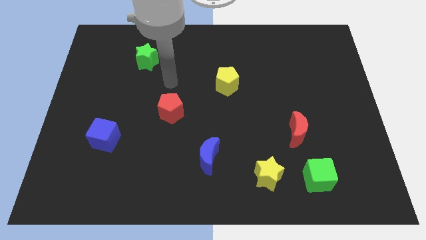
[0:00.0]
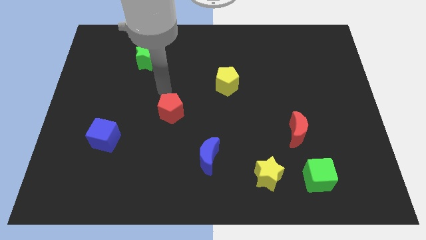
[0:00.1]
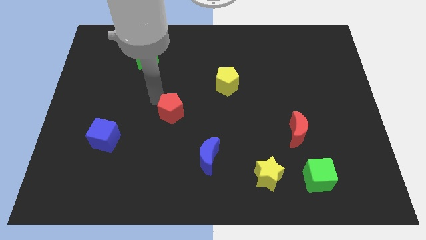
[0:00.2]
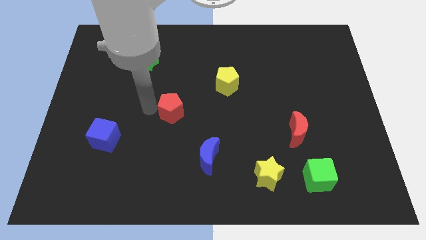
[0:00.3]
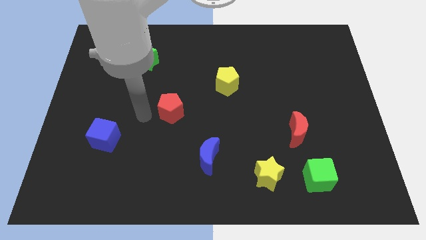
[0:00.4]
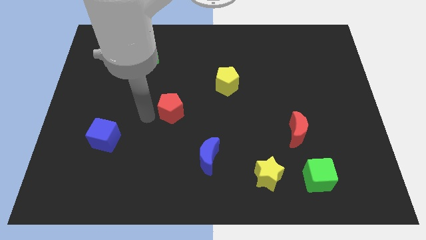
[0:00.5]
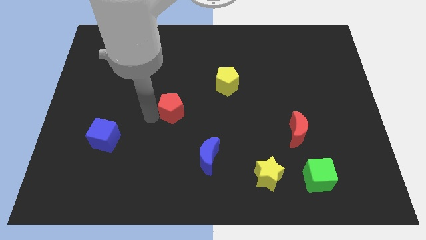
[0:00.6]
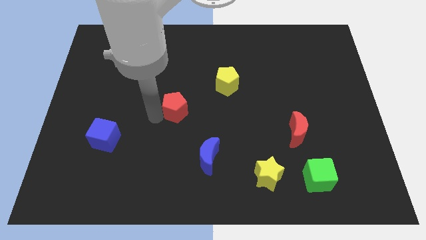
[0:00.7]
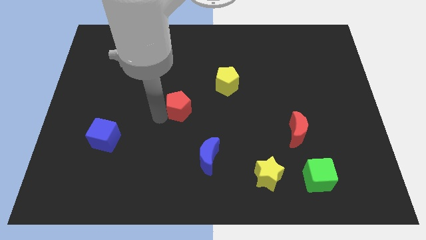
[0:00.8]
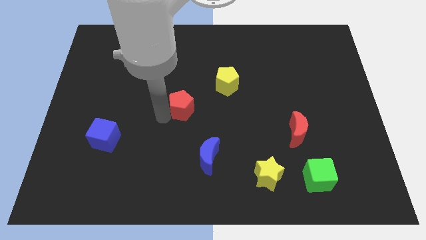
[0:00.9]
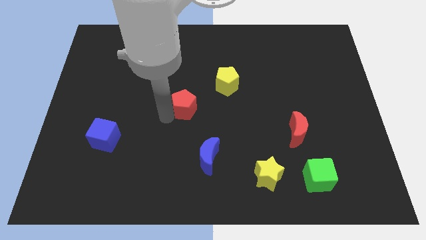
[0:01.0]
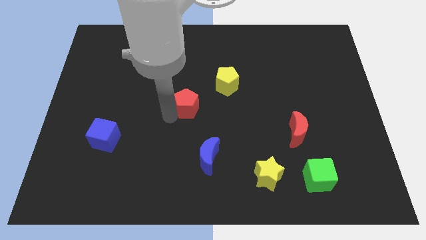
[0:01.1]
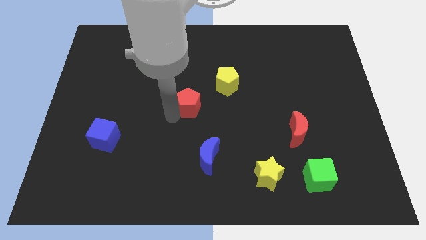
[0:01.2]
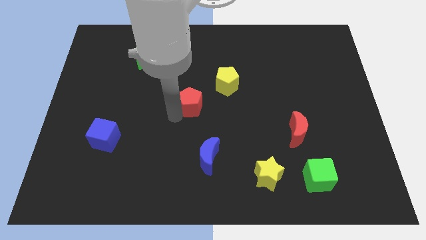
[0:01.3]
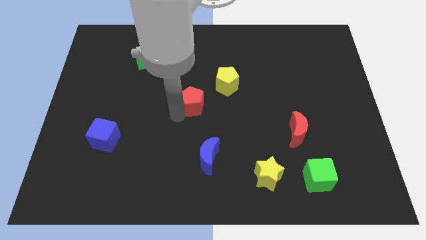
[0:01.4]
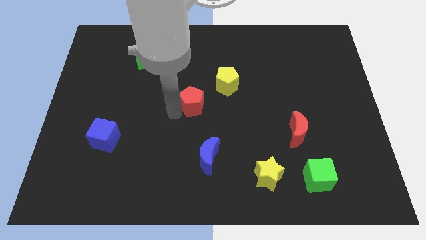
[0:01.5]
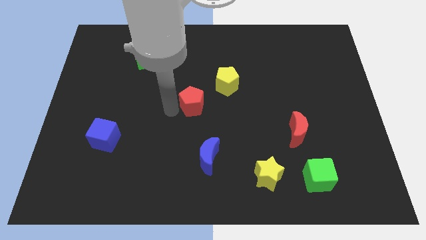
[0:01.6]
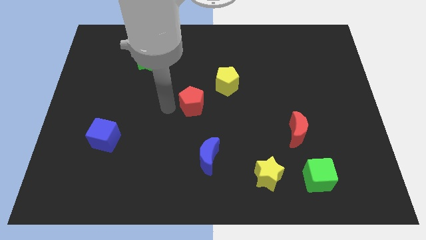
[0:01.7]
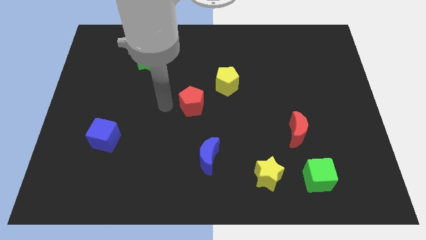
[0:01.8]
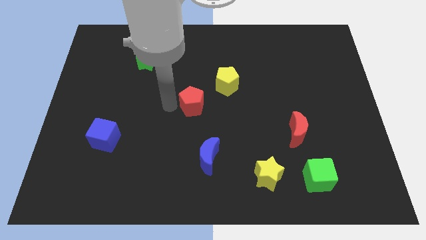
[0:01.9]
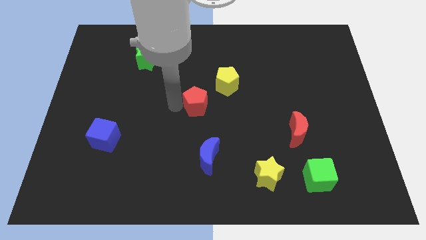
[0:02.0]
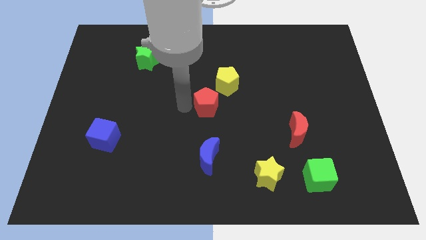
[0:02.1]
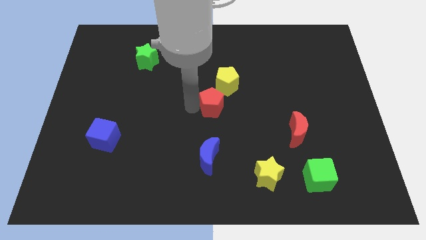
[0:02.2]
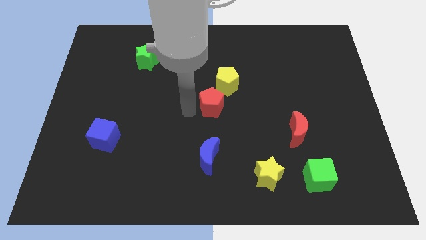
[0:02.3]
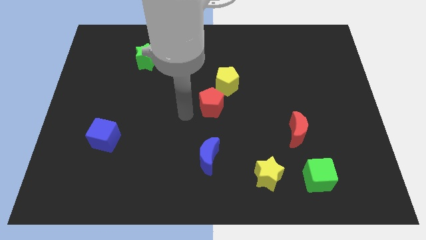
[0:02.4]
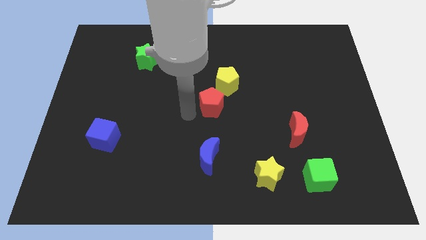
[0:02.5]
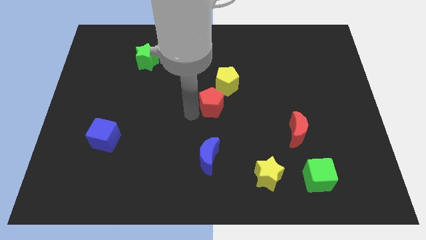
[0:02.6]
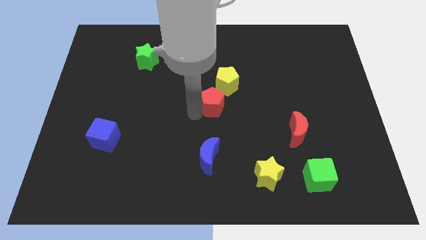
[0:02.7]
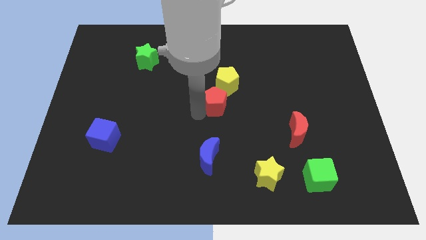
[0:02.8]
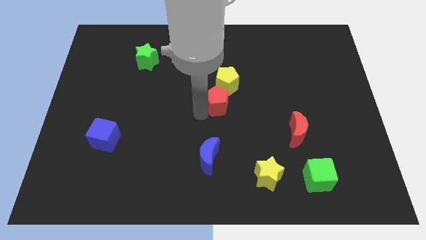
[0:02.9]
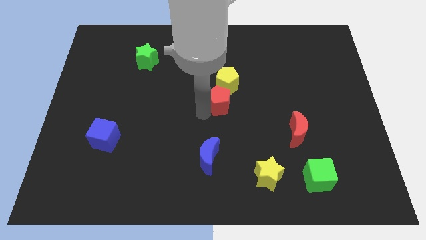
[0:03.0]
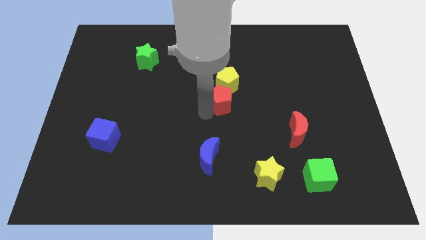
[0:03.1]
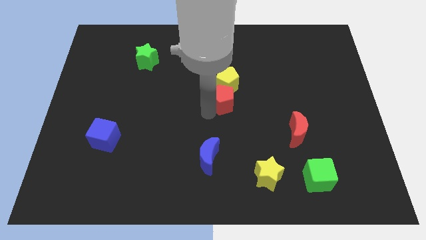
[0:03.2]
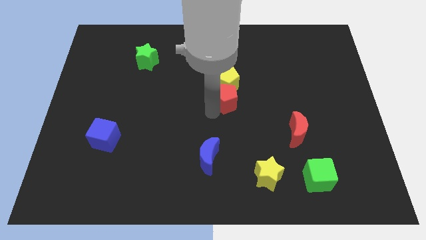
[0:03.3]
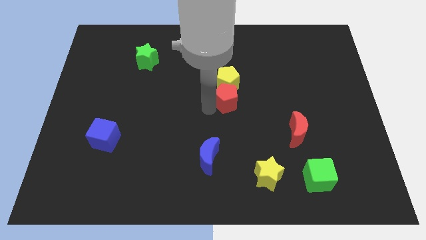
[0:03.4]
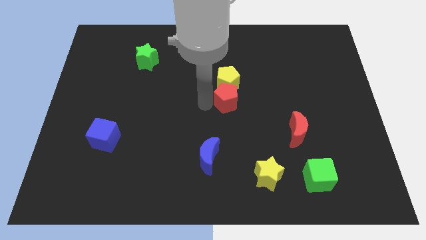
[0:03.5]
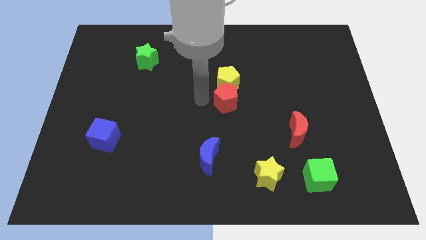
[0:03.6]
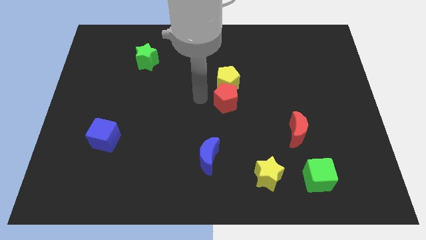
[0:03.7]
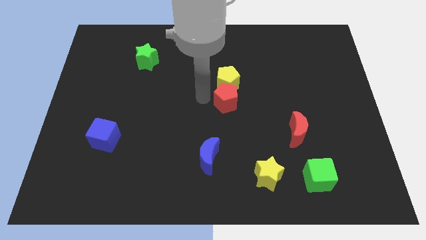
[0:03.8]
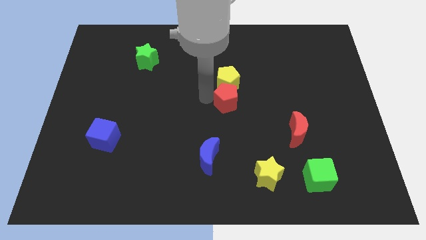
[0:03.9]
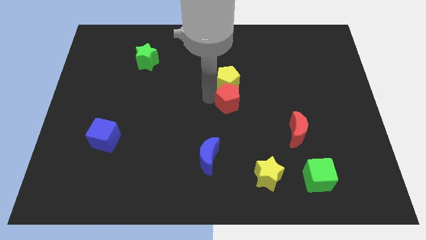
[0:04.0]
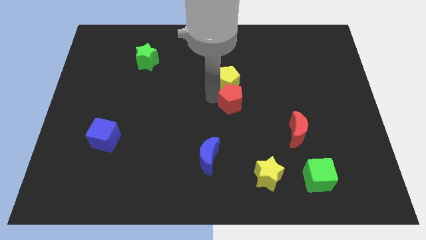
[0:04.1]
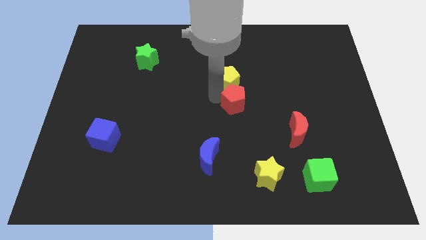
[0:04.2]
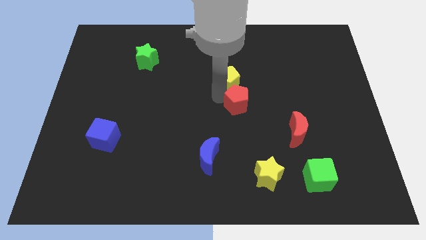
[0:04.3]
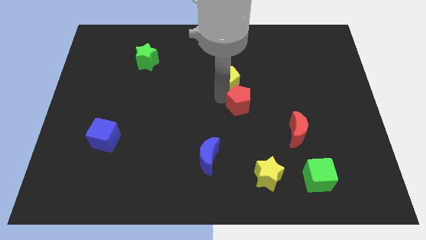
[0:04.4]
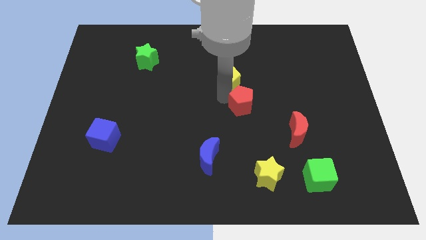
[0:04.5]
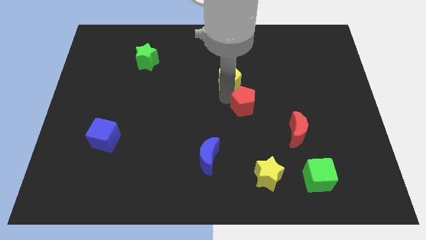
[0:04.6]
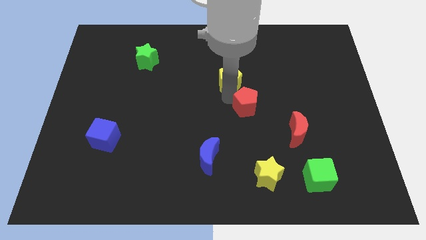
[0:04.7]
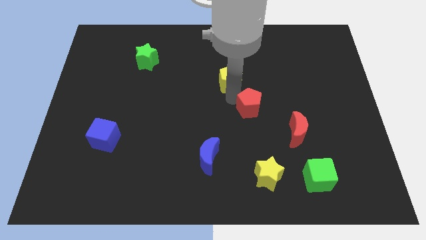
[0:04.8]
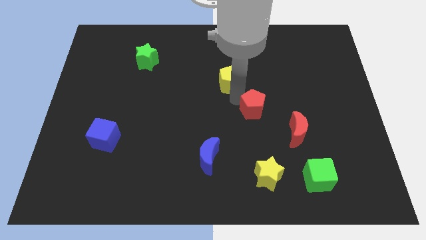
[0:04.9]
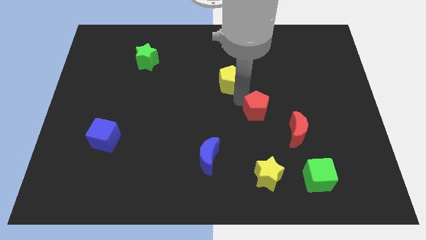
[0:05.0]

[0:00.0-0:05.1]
push the red pentagon to the right

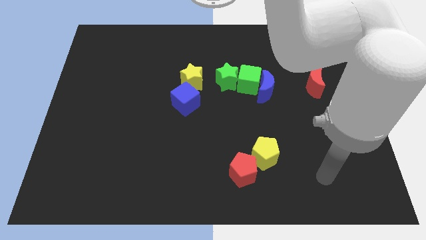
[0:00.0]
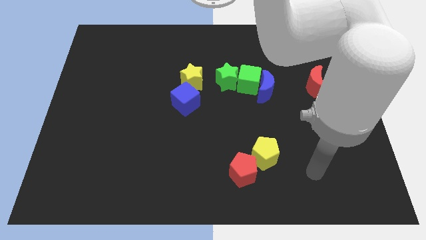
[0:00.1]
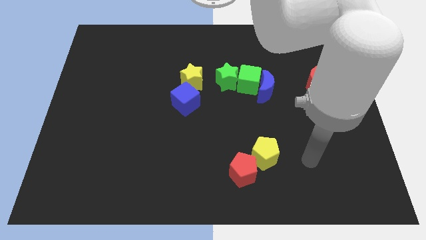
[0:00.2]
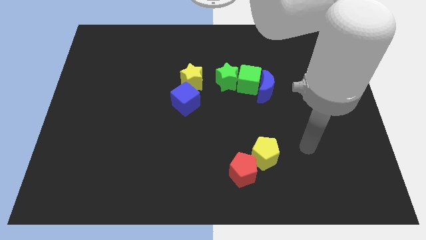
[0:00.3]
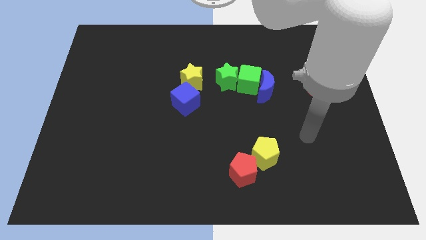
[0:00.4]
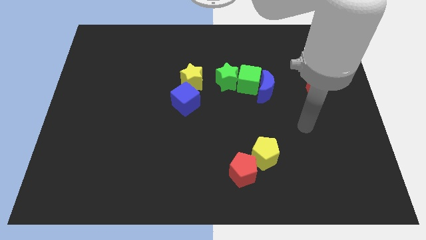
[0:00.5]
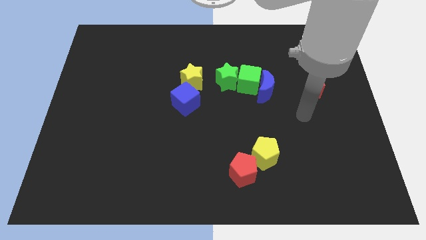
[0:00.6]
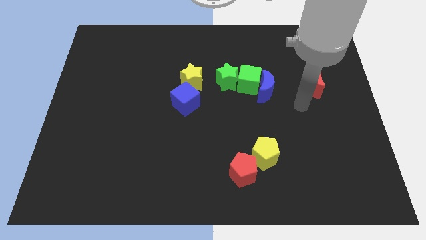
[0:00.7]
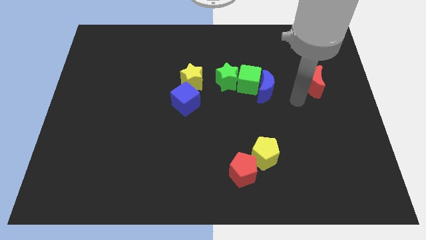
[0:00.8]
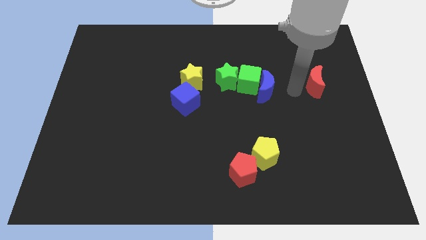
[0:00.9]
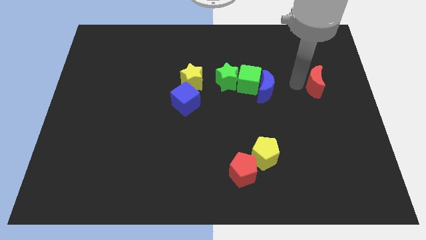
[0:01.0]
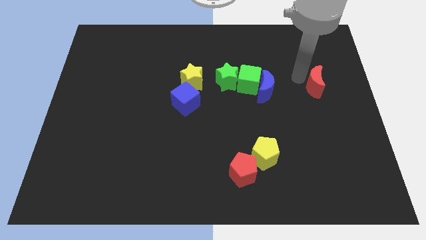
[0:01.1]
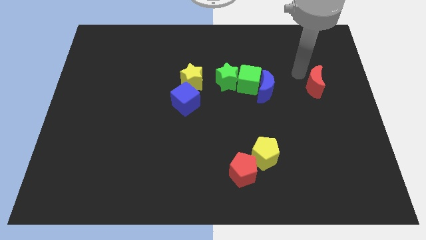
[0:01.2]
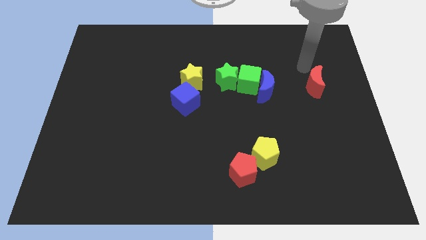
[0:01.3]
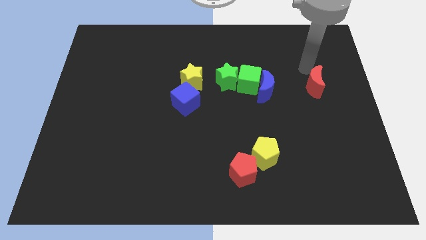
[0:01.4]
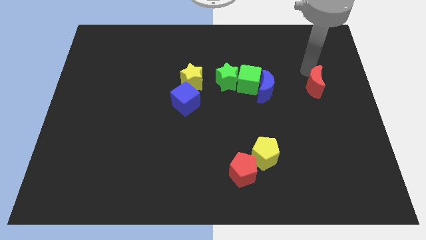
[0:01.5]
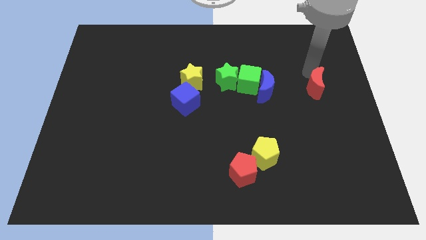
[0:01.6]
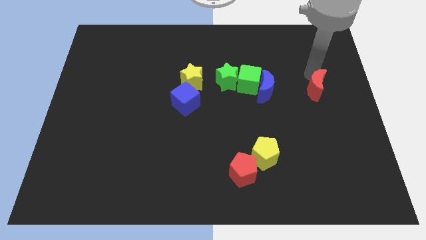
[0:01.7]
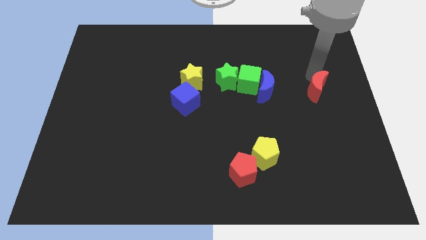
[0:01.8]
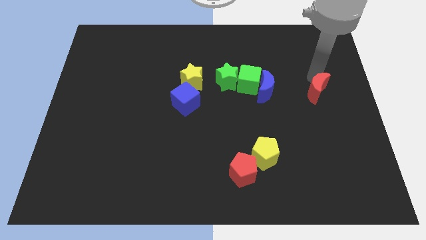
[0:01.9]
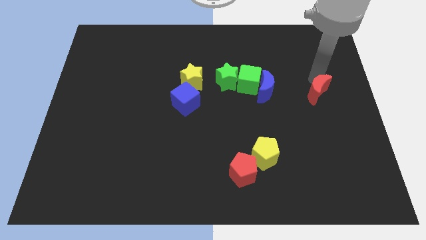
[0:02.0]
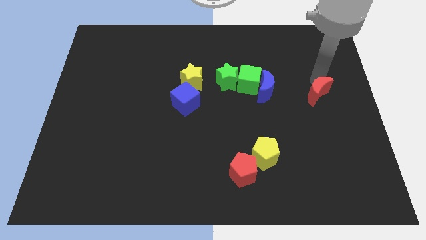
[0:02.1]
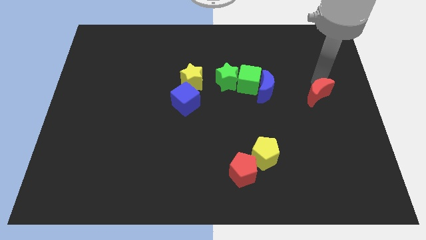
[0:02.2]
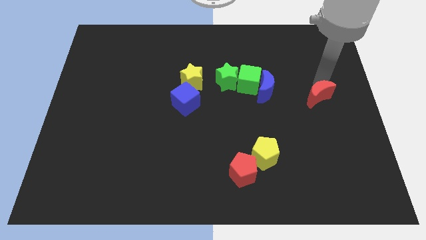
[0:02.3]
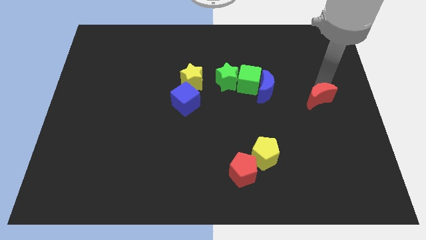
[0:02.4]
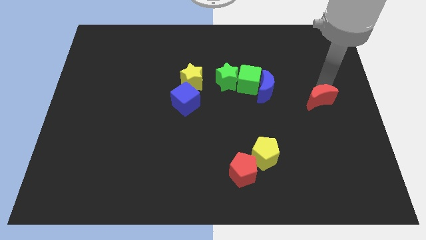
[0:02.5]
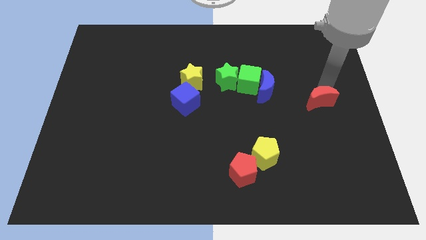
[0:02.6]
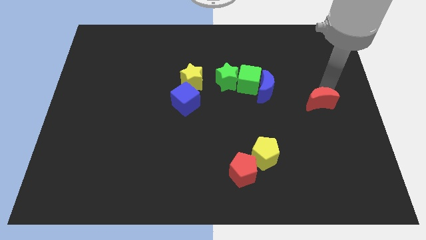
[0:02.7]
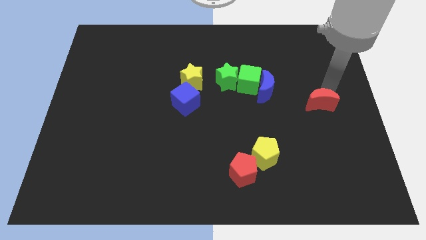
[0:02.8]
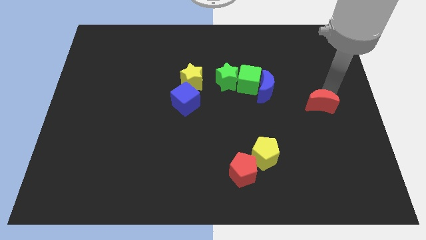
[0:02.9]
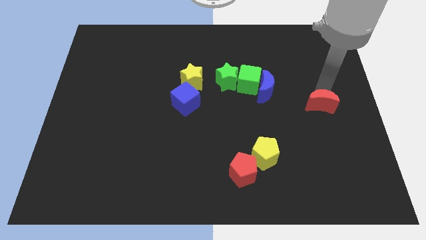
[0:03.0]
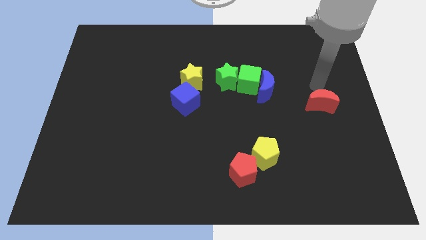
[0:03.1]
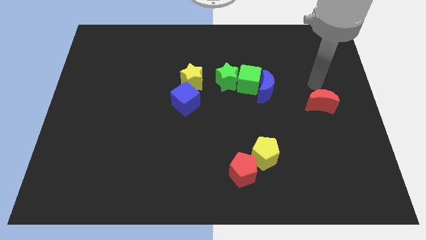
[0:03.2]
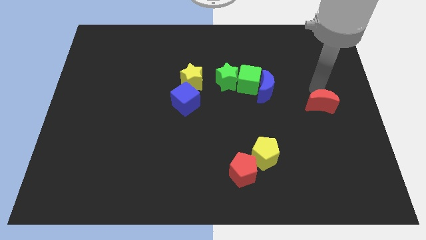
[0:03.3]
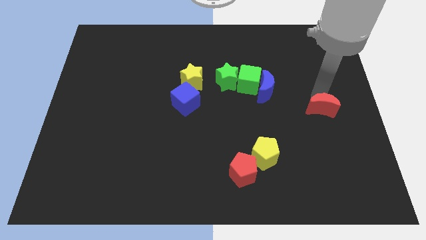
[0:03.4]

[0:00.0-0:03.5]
slightly push the red moon downwards
